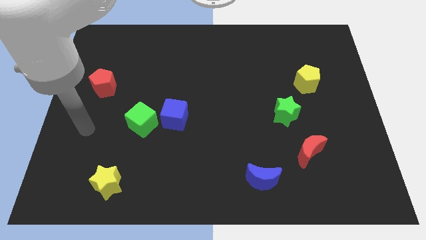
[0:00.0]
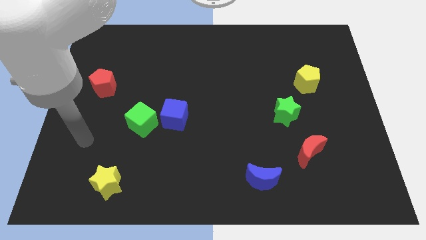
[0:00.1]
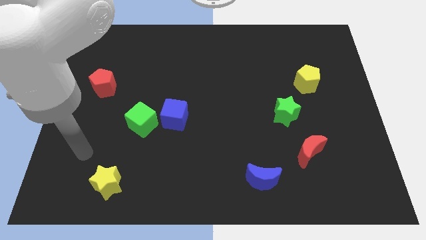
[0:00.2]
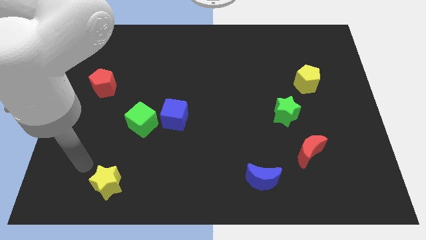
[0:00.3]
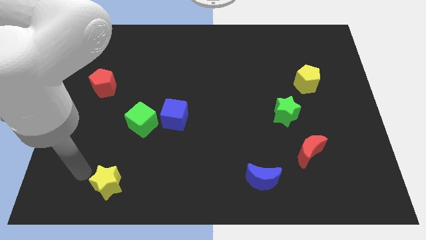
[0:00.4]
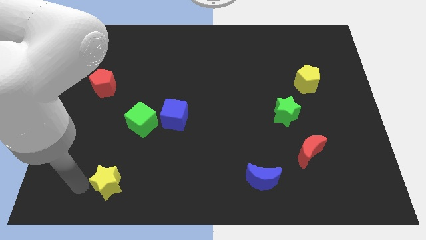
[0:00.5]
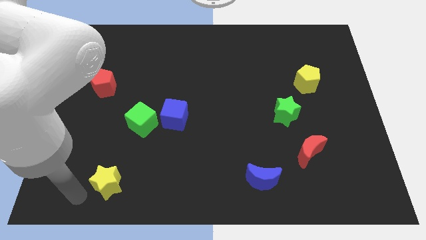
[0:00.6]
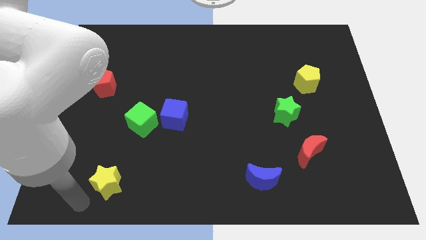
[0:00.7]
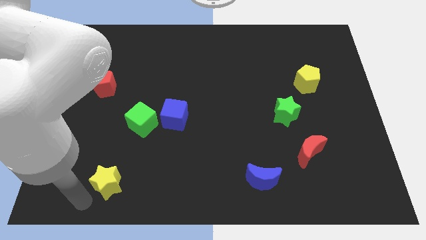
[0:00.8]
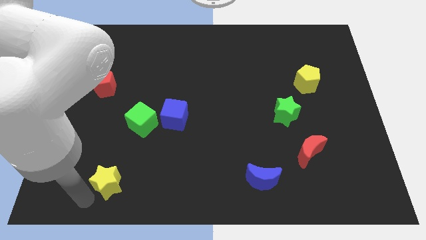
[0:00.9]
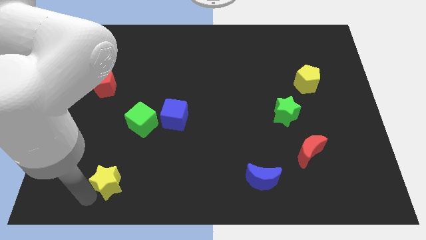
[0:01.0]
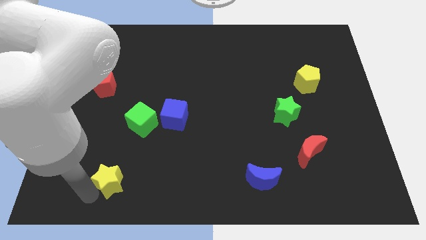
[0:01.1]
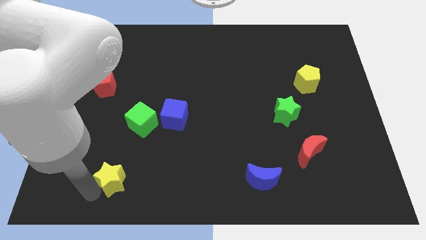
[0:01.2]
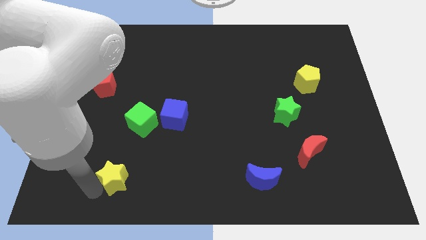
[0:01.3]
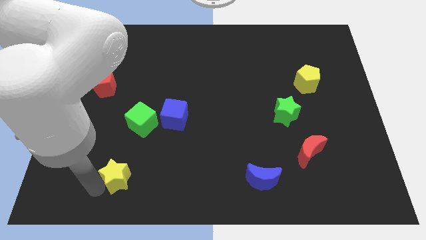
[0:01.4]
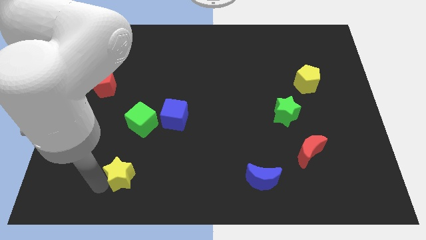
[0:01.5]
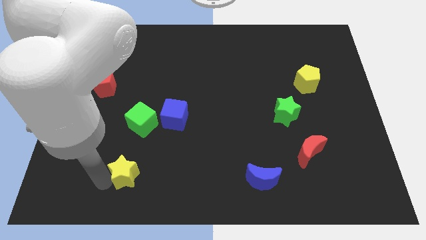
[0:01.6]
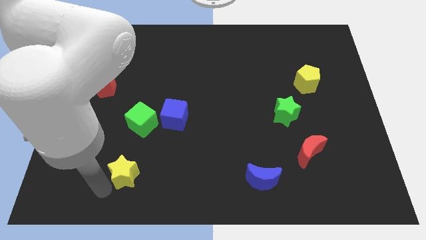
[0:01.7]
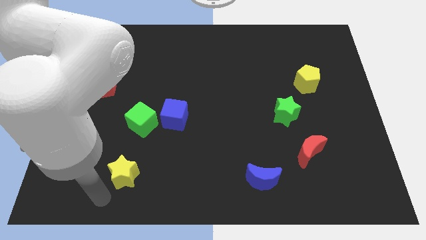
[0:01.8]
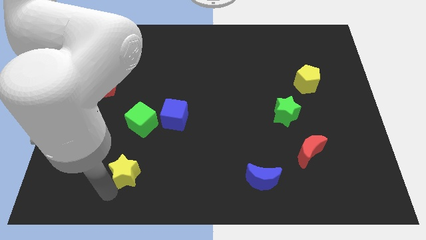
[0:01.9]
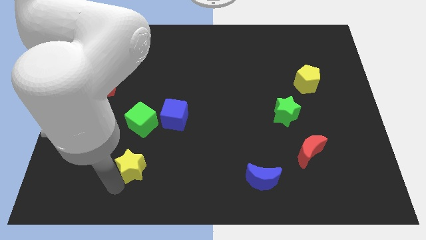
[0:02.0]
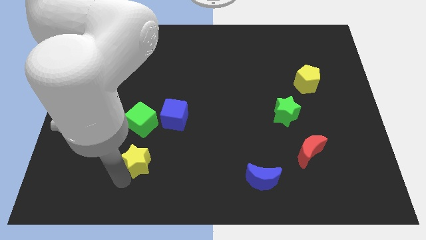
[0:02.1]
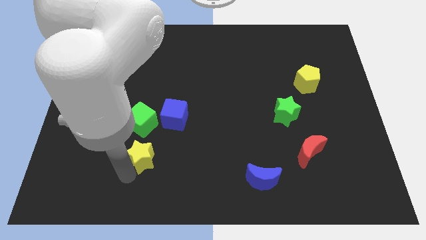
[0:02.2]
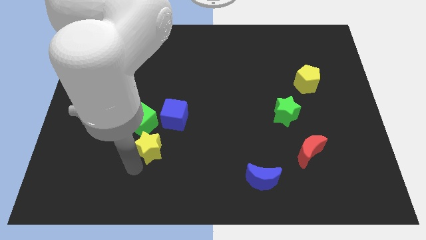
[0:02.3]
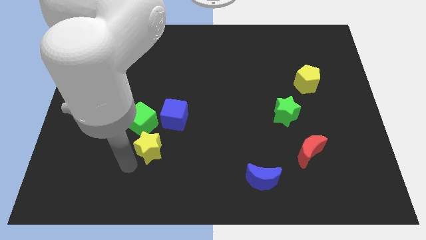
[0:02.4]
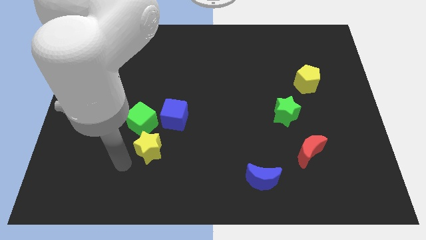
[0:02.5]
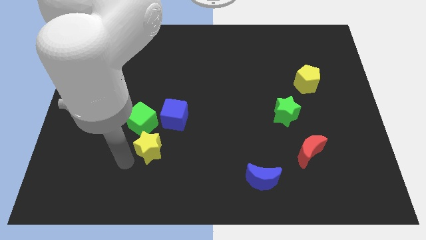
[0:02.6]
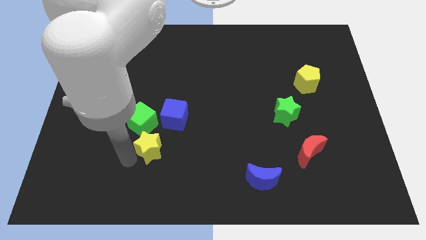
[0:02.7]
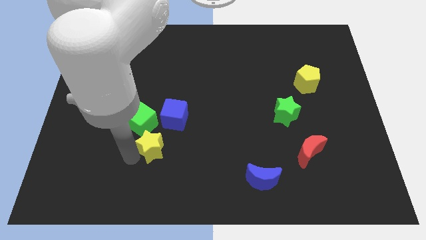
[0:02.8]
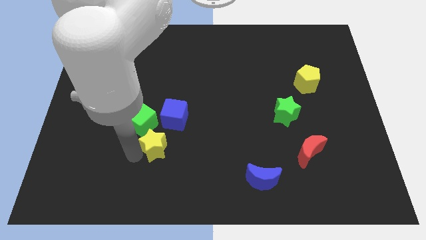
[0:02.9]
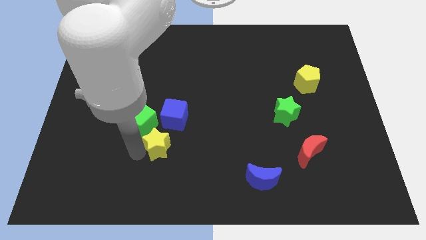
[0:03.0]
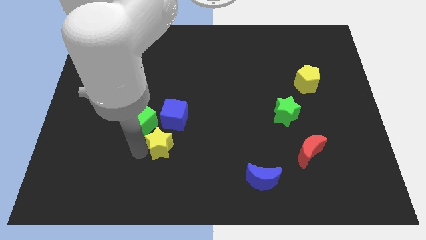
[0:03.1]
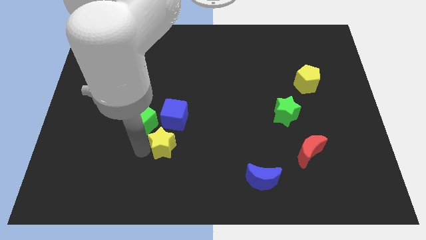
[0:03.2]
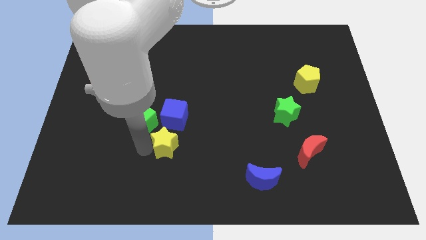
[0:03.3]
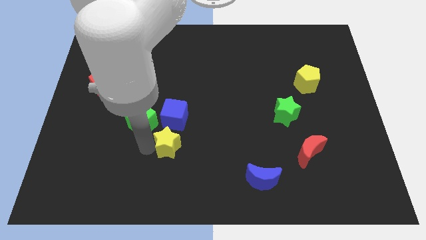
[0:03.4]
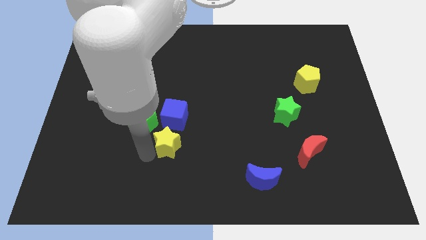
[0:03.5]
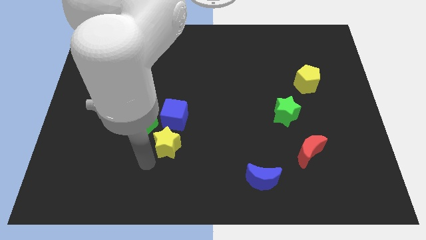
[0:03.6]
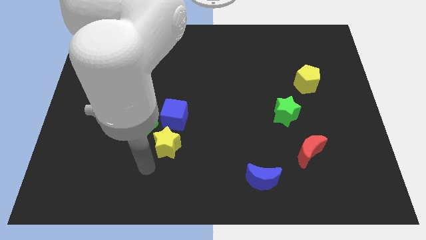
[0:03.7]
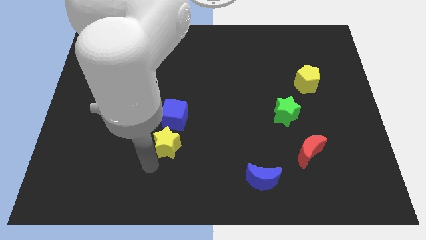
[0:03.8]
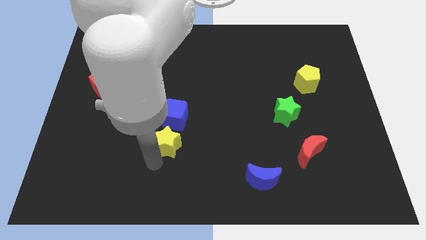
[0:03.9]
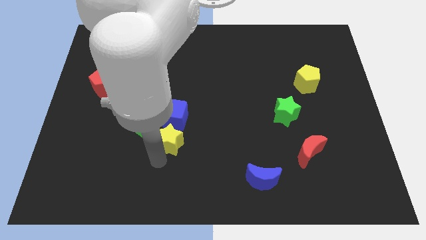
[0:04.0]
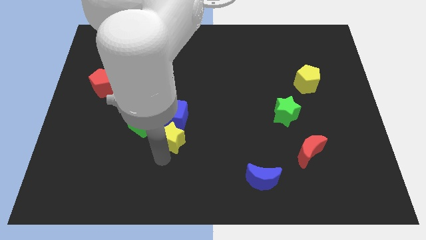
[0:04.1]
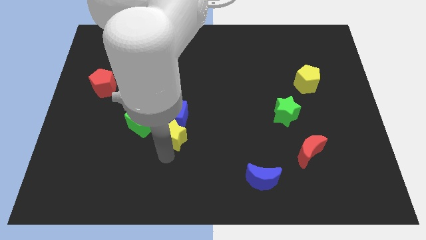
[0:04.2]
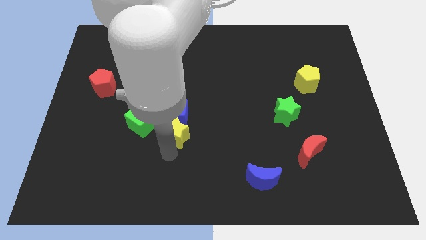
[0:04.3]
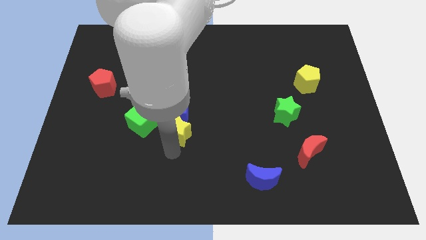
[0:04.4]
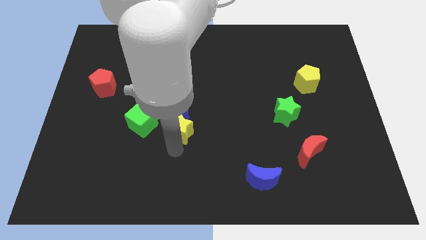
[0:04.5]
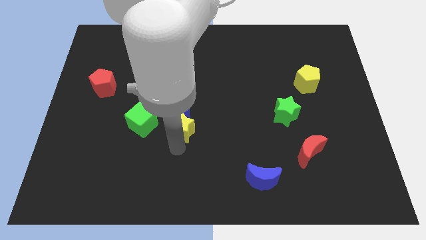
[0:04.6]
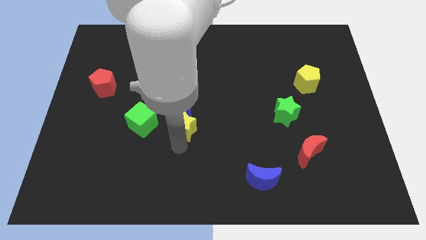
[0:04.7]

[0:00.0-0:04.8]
slide the yellow star up and then to the right

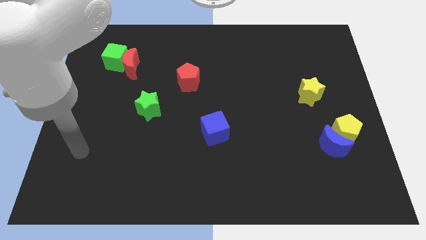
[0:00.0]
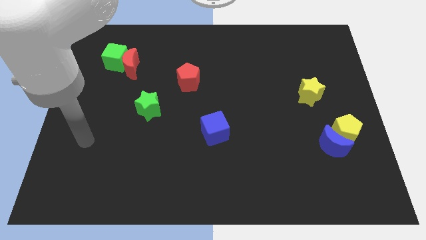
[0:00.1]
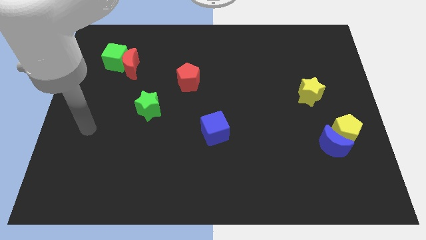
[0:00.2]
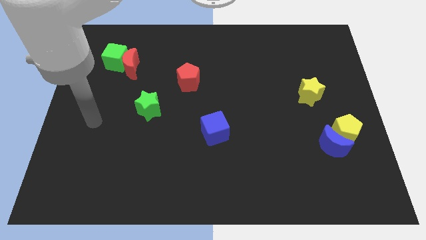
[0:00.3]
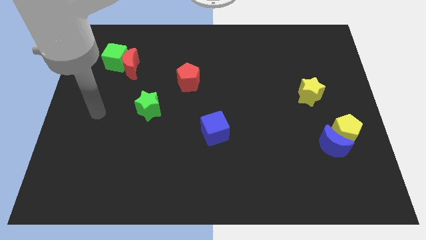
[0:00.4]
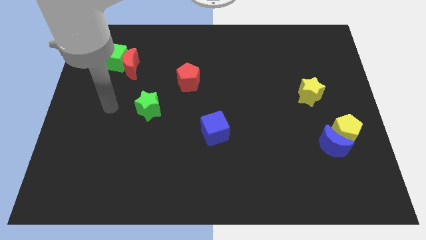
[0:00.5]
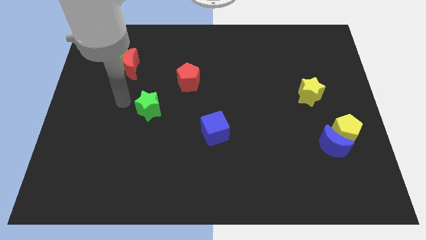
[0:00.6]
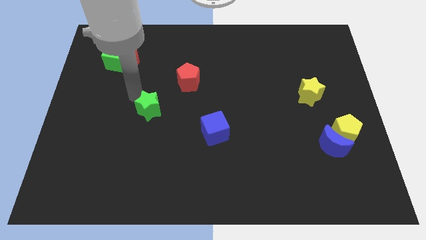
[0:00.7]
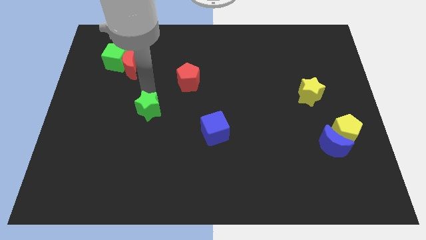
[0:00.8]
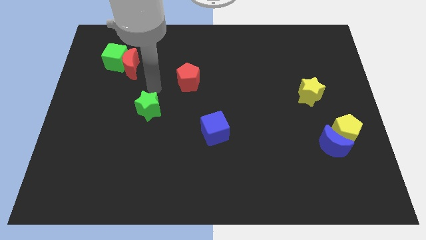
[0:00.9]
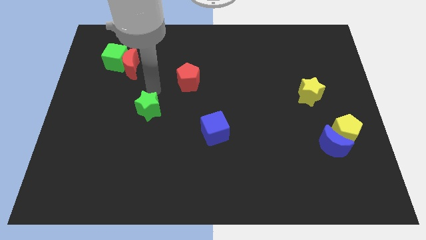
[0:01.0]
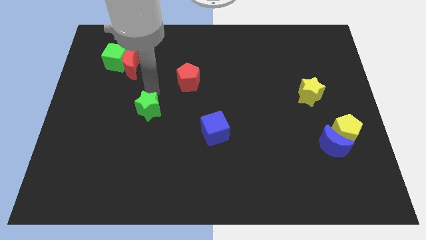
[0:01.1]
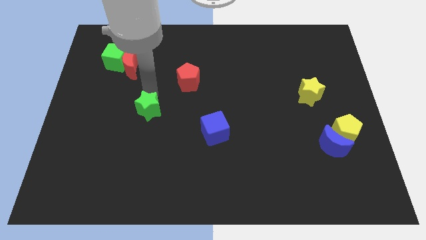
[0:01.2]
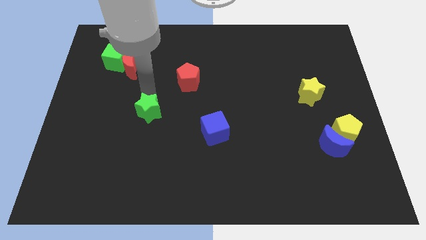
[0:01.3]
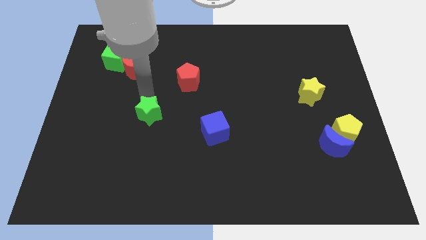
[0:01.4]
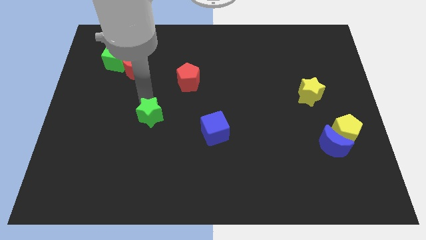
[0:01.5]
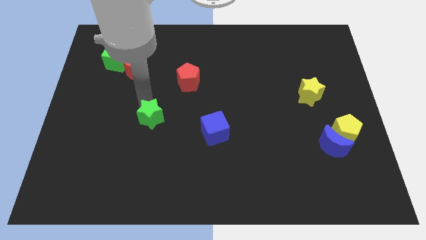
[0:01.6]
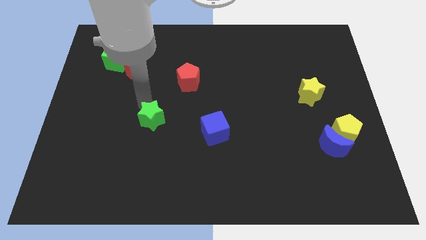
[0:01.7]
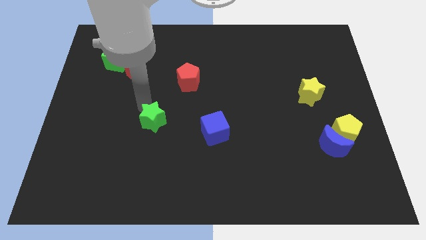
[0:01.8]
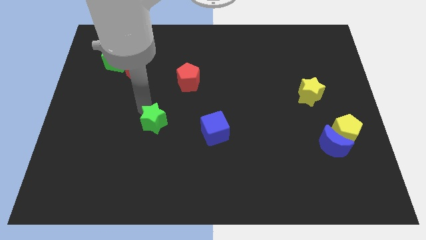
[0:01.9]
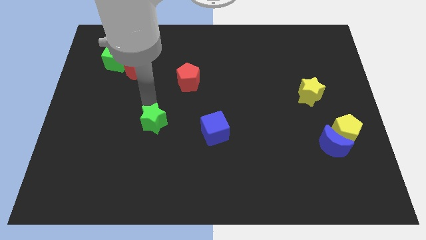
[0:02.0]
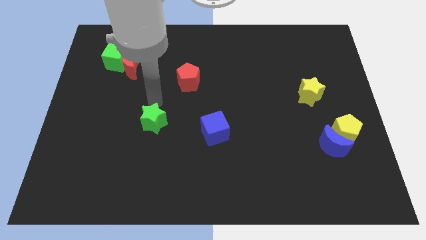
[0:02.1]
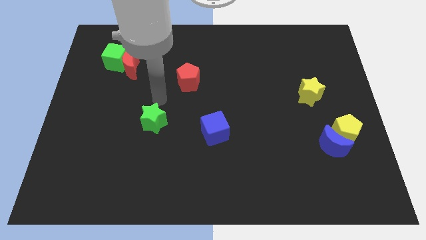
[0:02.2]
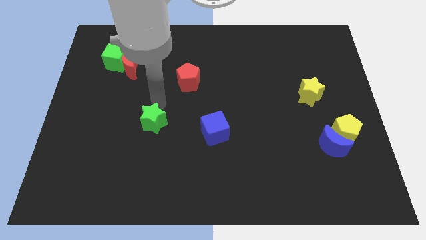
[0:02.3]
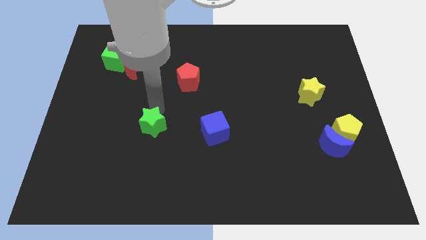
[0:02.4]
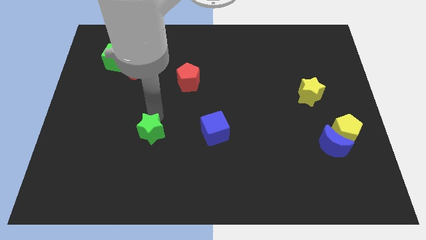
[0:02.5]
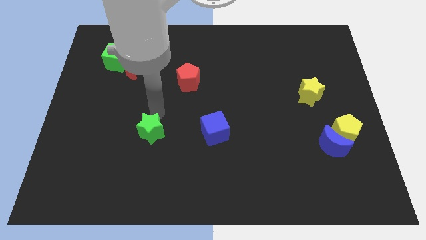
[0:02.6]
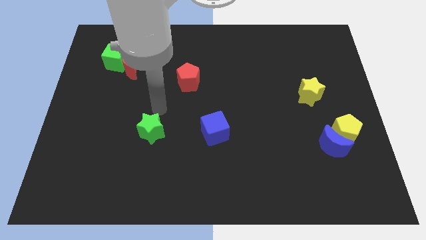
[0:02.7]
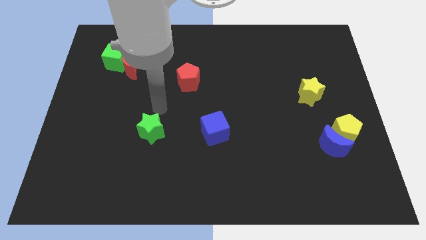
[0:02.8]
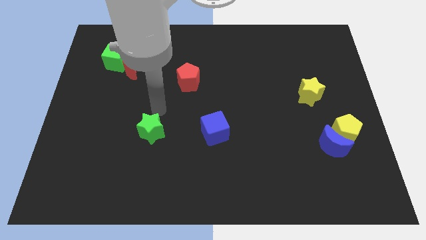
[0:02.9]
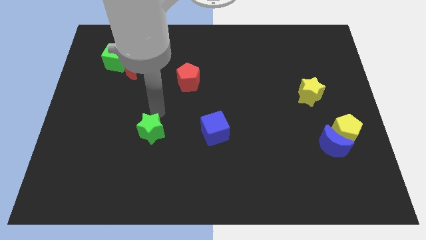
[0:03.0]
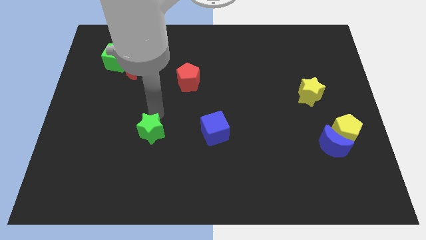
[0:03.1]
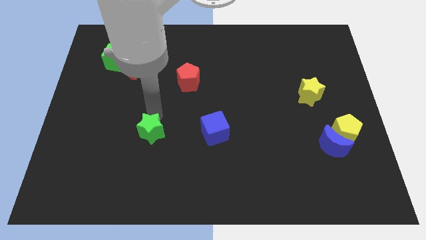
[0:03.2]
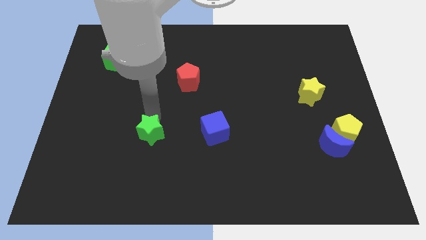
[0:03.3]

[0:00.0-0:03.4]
move the green star a little downwards
